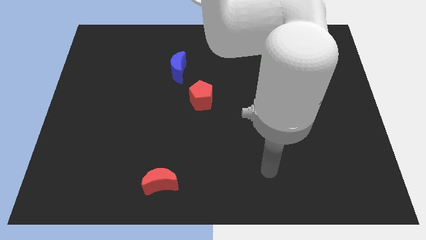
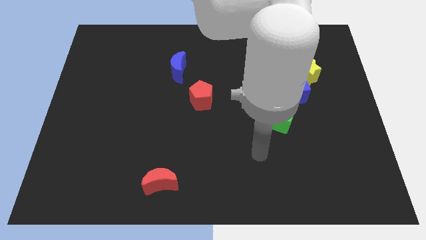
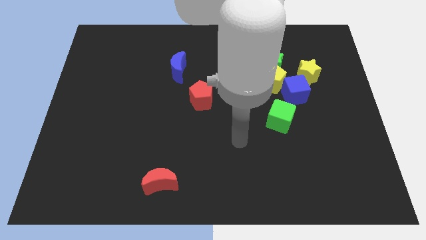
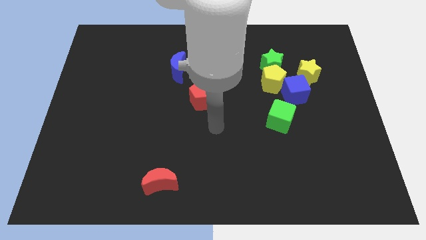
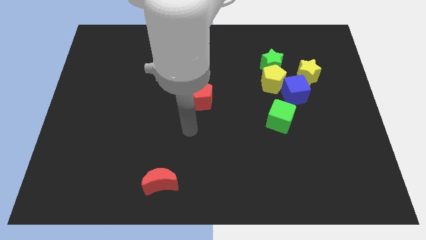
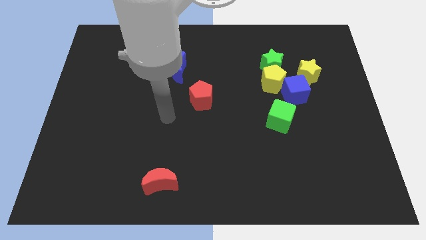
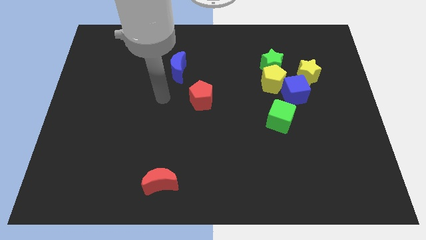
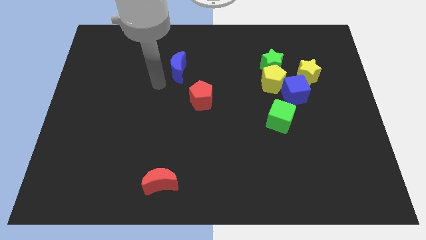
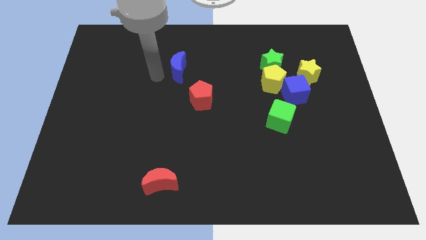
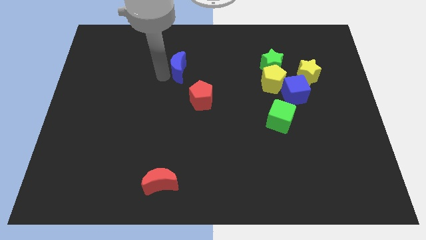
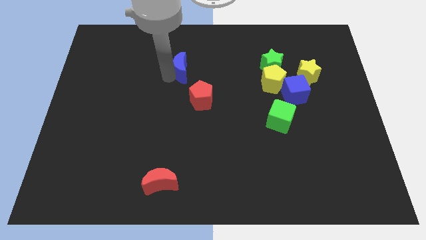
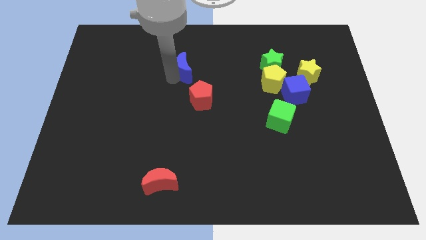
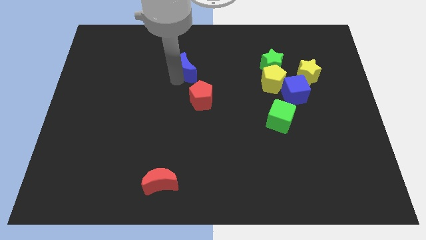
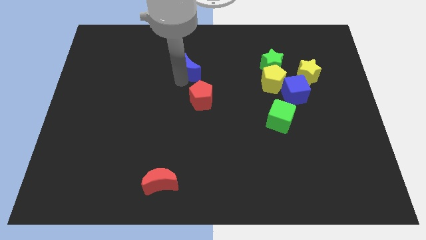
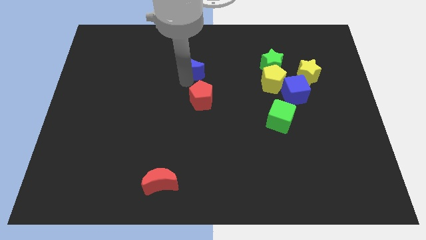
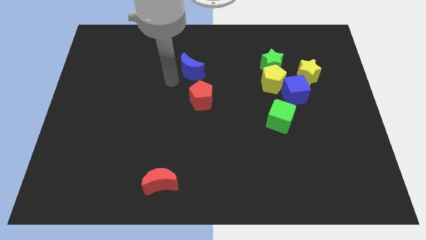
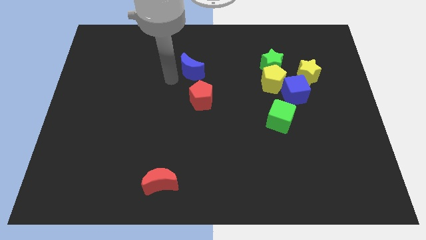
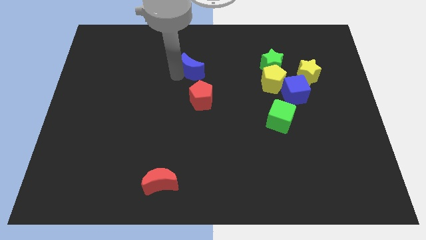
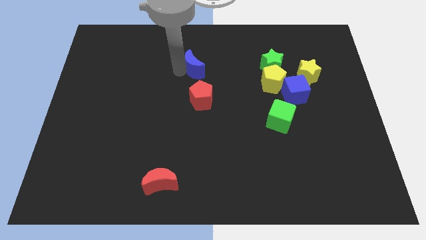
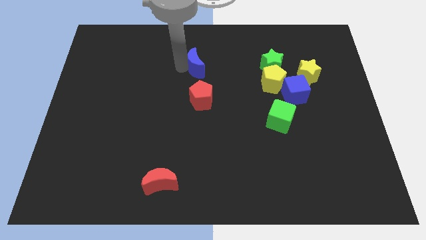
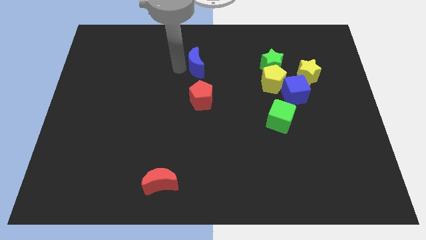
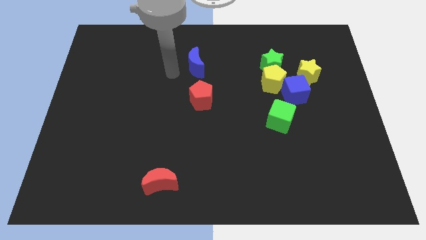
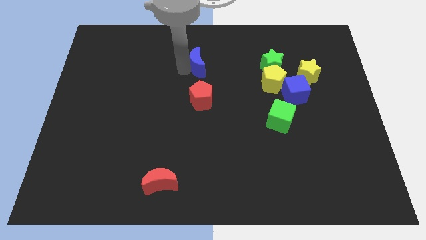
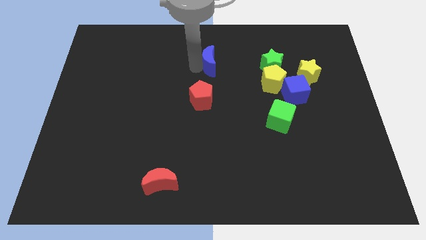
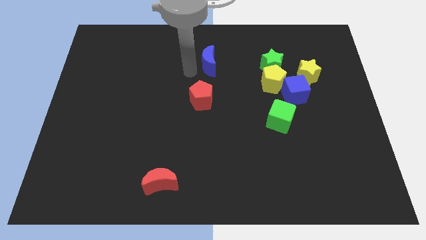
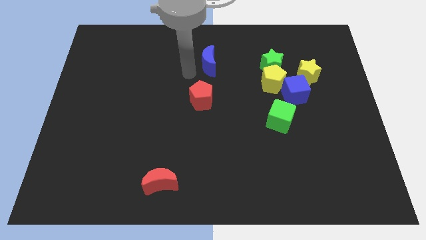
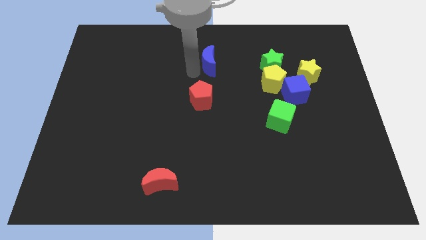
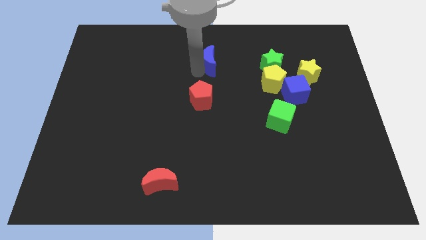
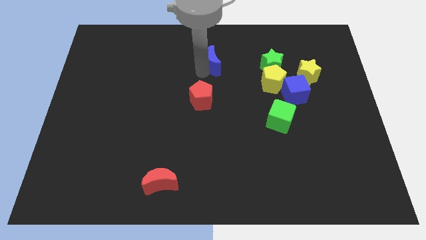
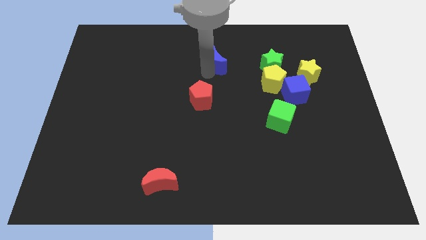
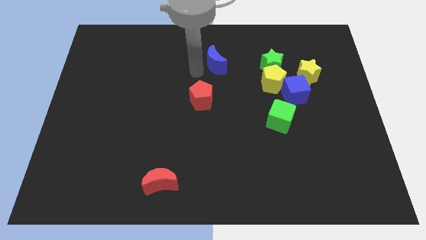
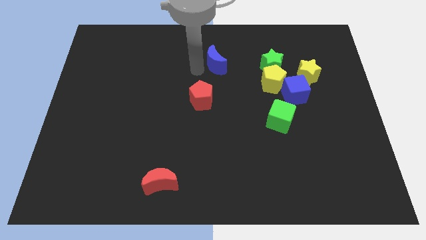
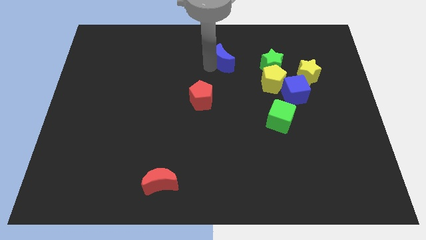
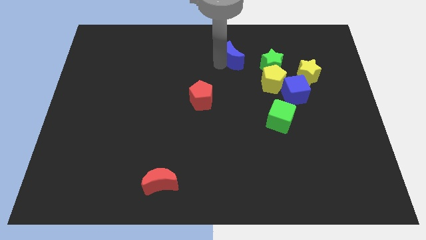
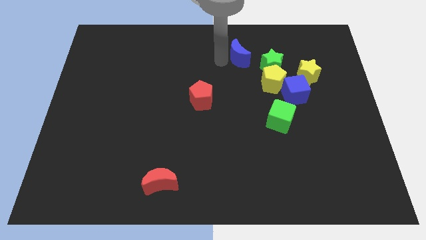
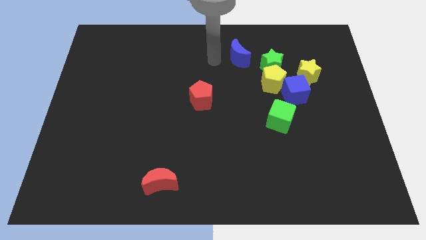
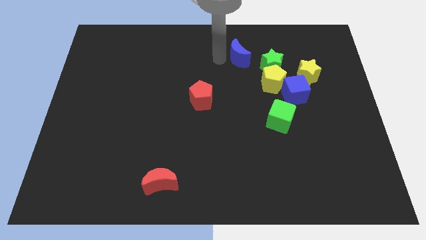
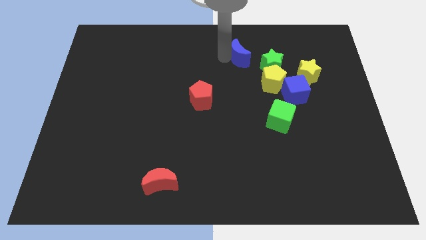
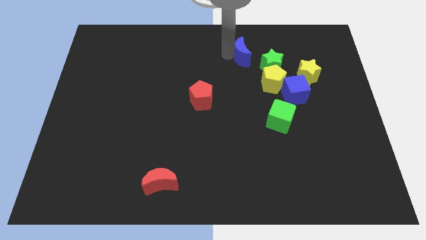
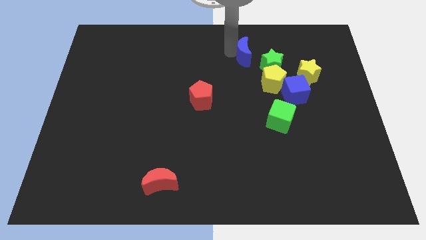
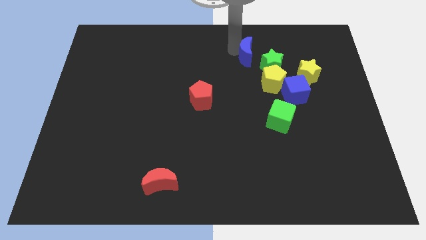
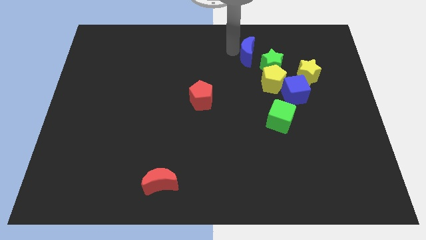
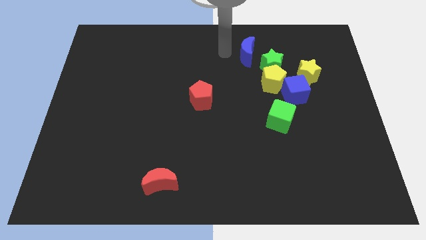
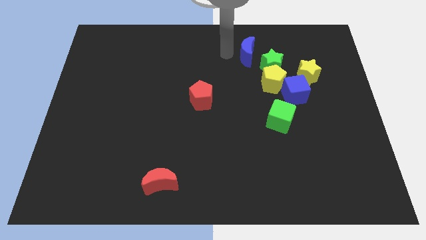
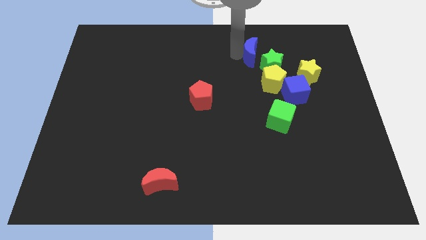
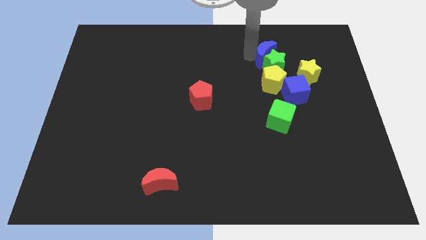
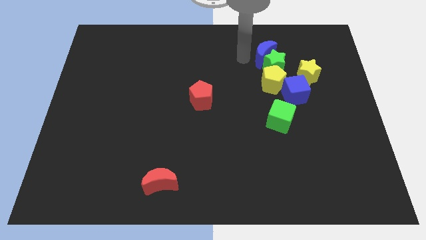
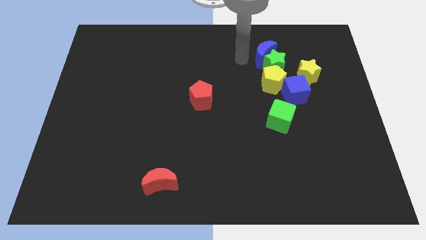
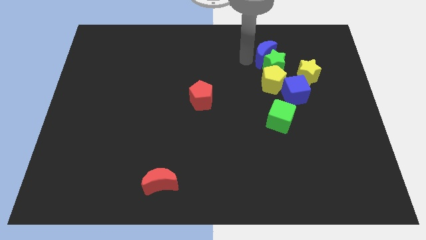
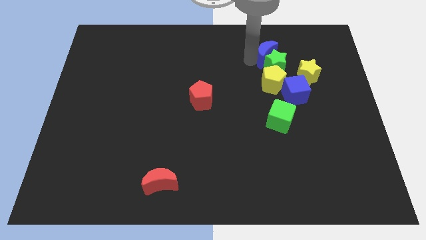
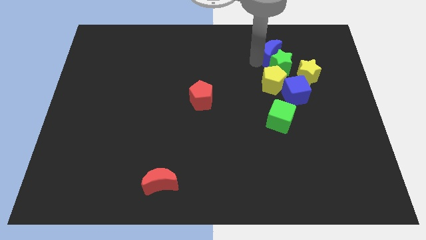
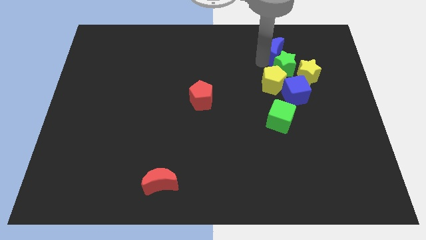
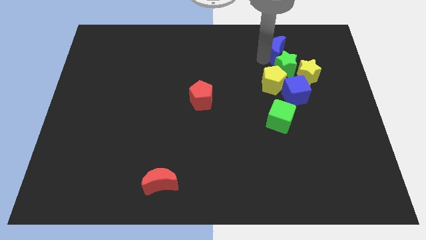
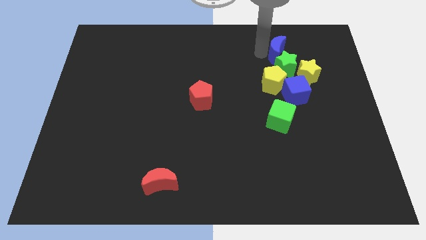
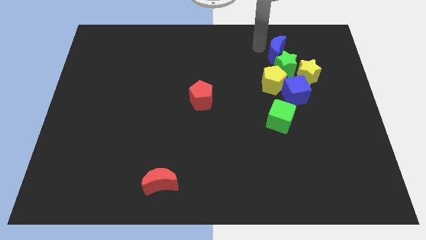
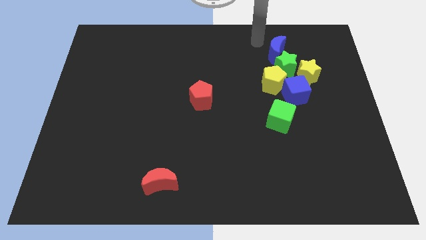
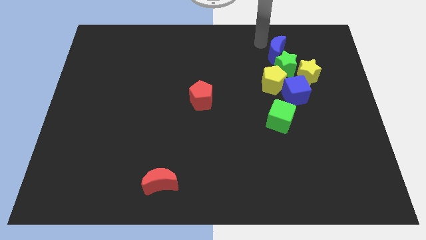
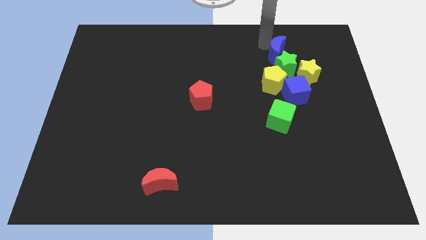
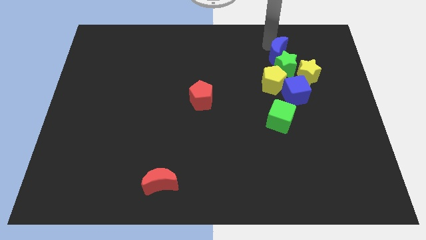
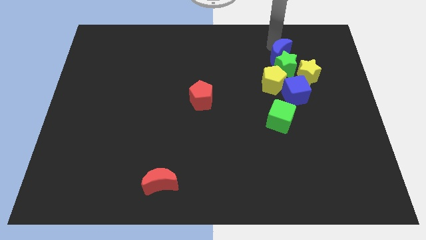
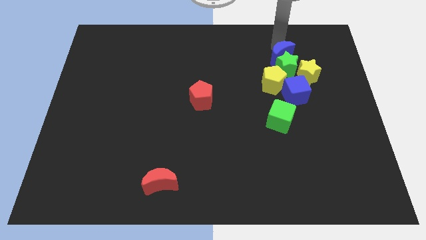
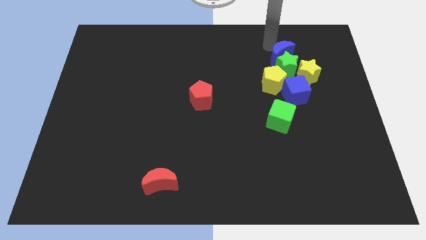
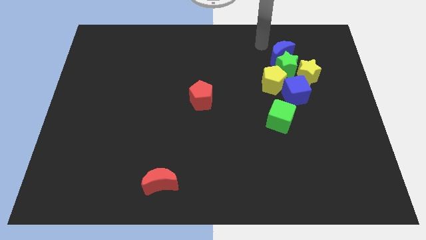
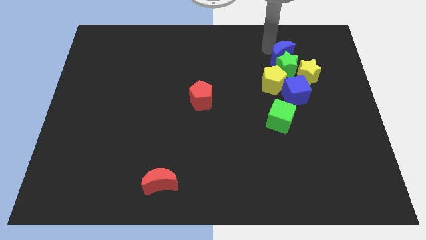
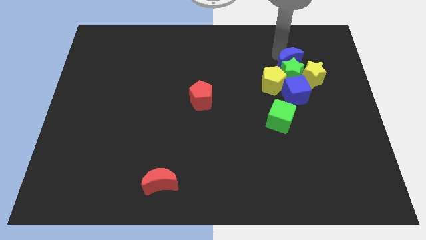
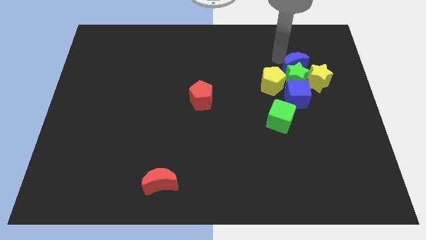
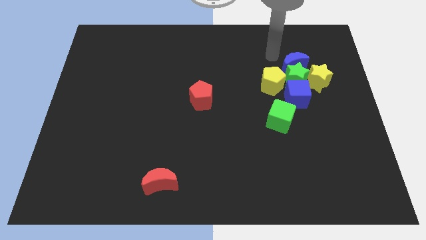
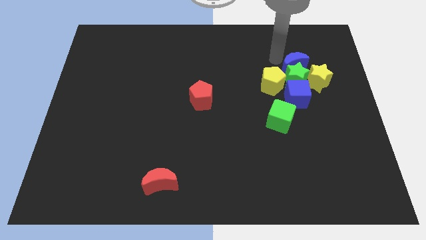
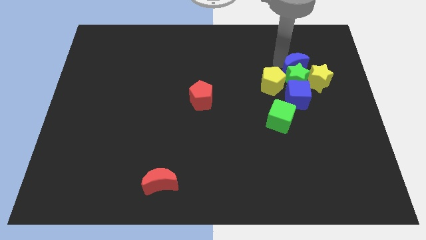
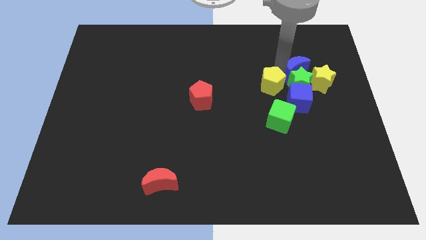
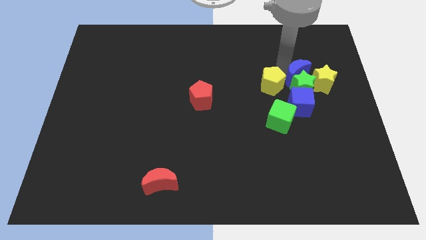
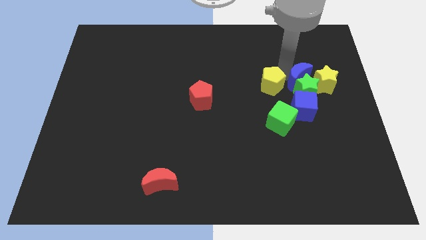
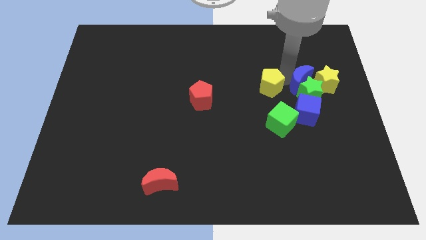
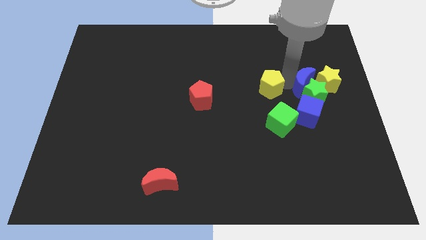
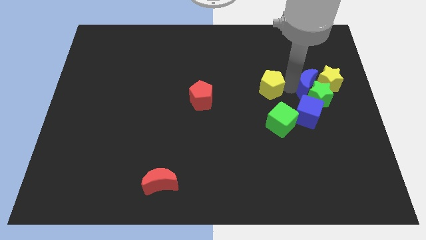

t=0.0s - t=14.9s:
move the blue moon close to the yellow star
